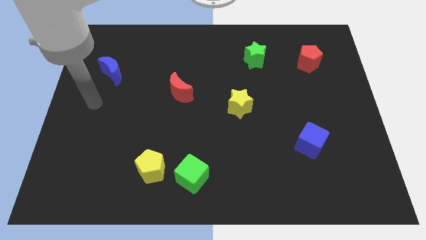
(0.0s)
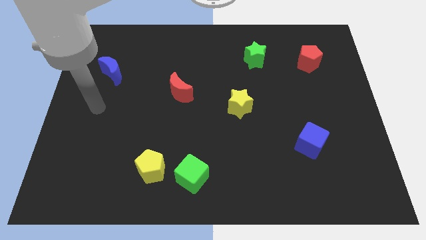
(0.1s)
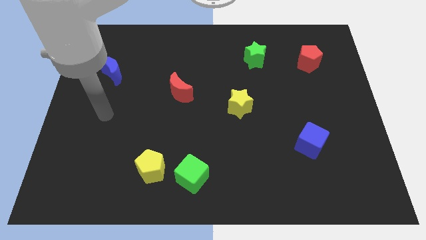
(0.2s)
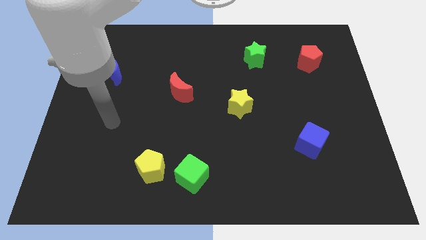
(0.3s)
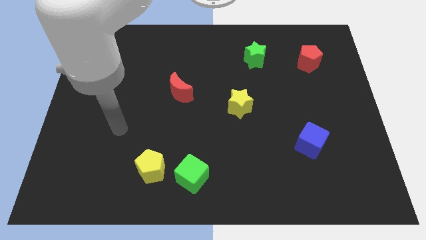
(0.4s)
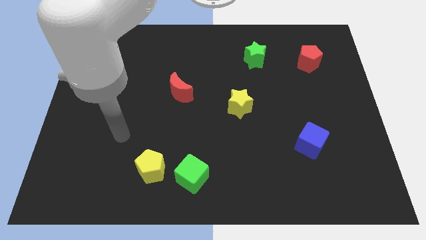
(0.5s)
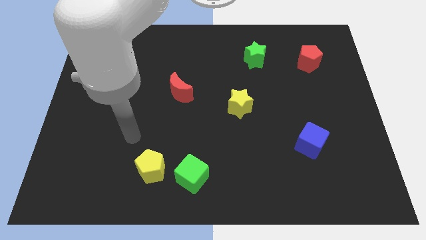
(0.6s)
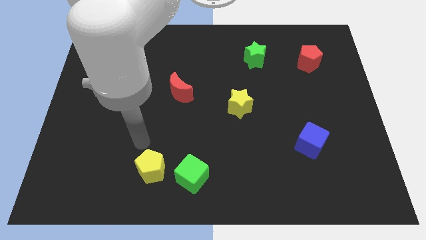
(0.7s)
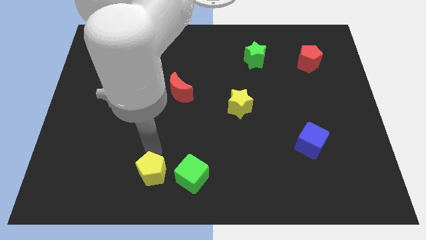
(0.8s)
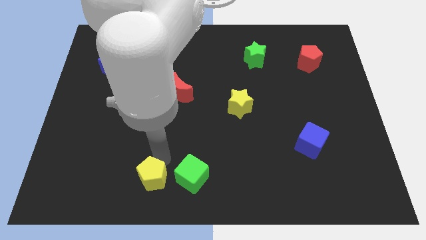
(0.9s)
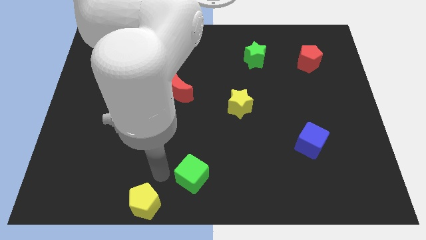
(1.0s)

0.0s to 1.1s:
separate the green cube from the yellow pentagon

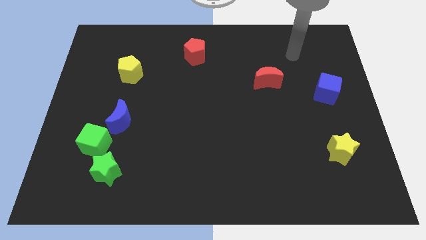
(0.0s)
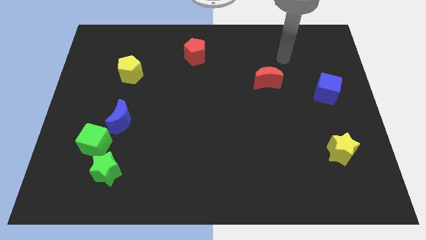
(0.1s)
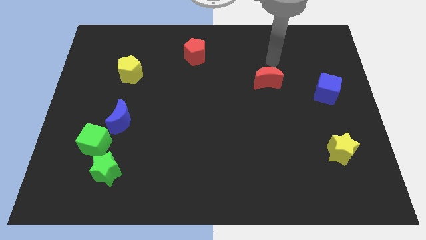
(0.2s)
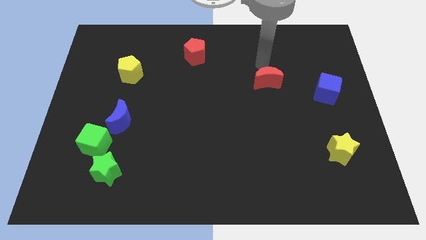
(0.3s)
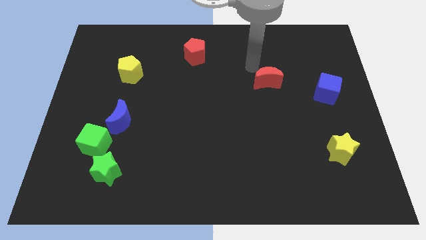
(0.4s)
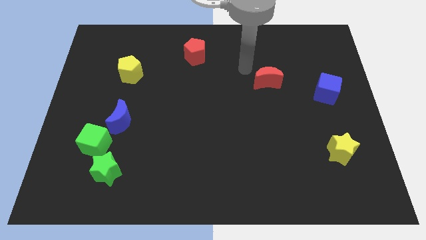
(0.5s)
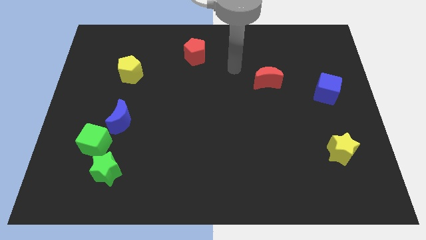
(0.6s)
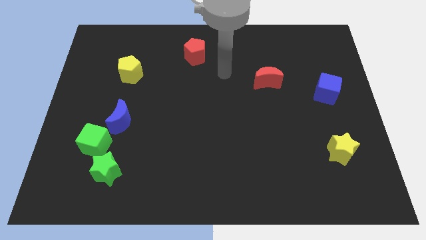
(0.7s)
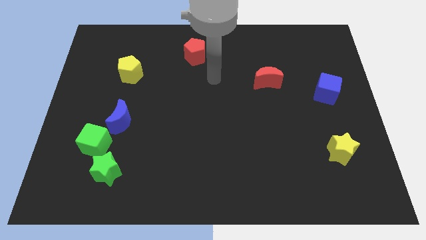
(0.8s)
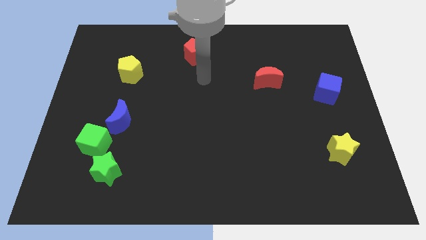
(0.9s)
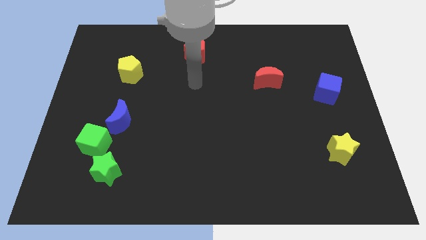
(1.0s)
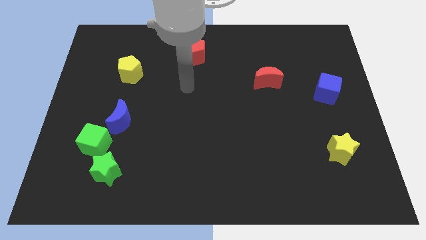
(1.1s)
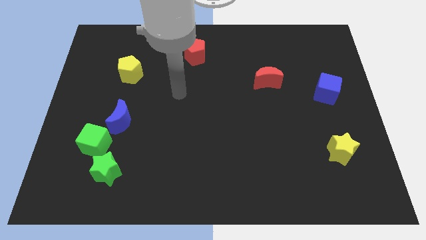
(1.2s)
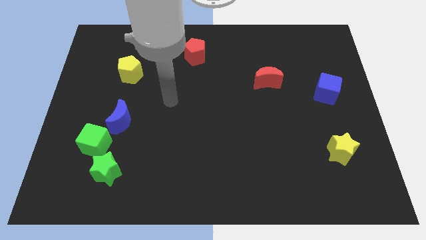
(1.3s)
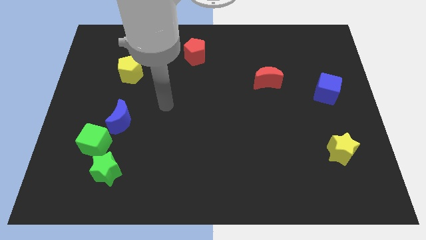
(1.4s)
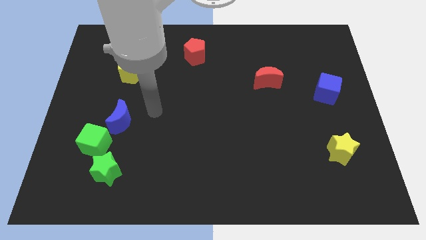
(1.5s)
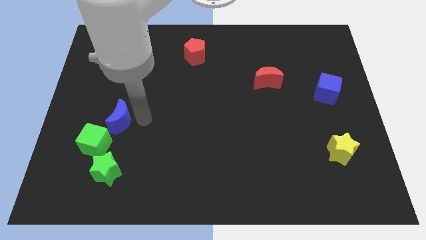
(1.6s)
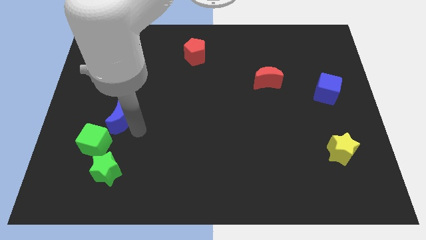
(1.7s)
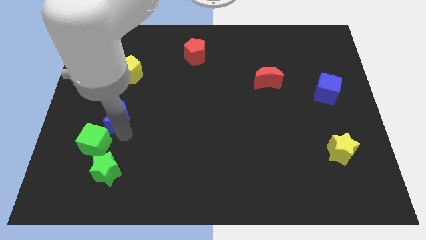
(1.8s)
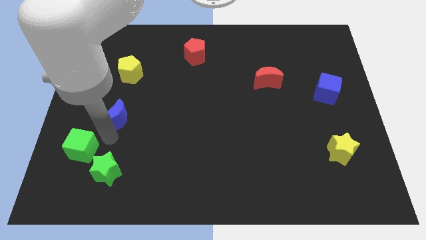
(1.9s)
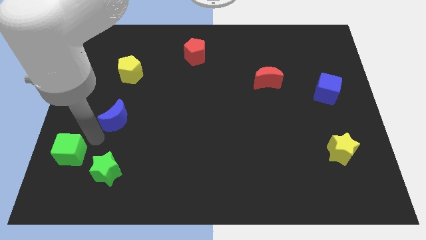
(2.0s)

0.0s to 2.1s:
pull the blue moon apart from the green cube

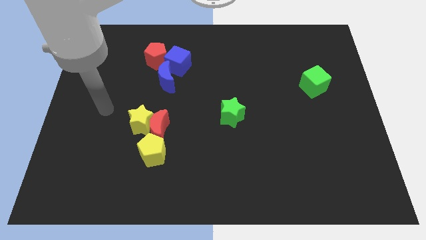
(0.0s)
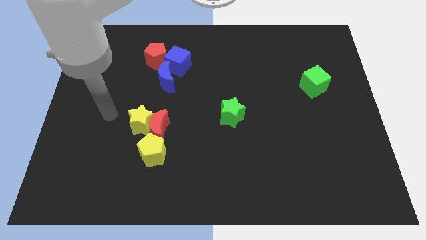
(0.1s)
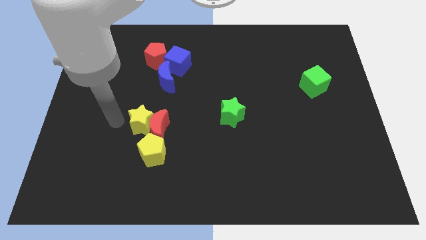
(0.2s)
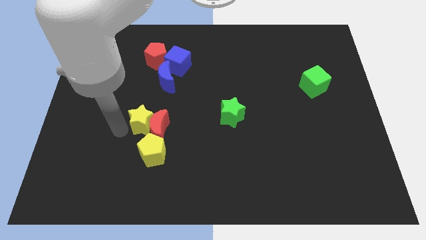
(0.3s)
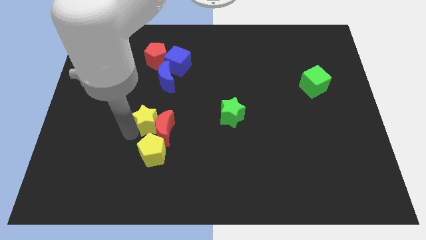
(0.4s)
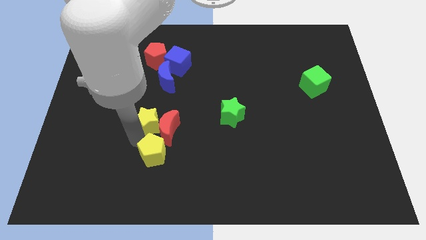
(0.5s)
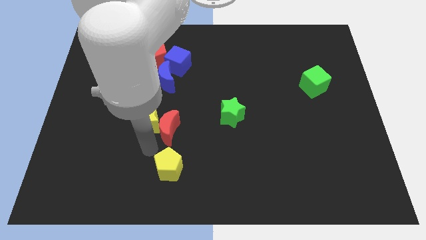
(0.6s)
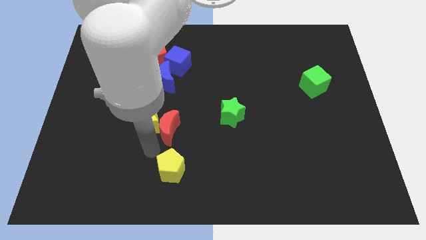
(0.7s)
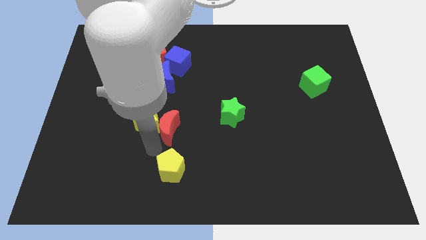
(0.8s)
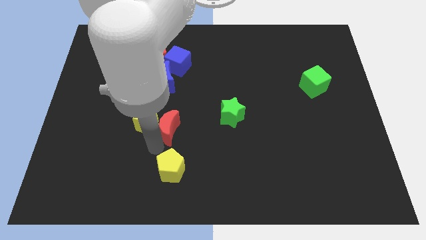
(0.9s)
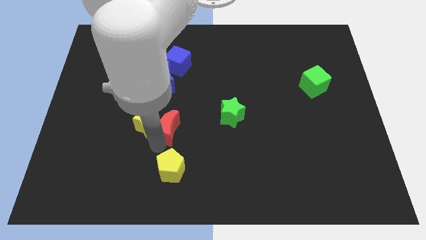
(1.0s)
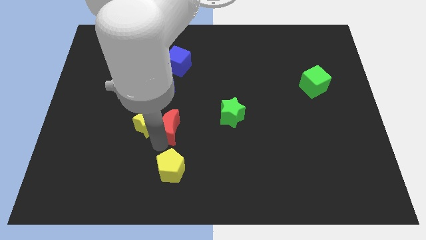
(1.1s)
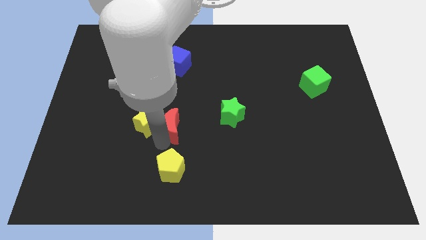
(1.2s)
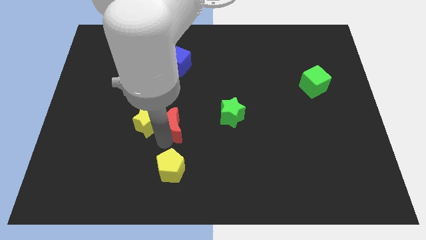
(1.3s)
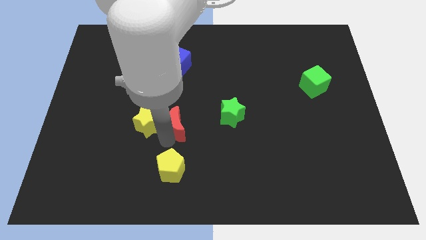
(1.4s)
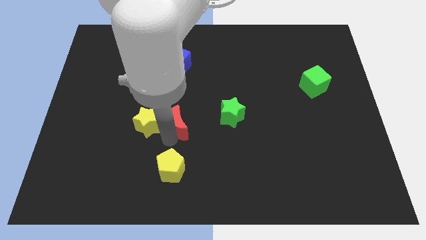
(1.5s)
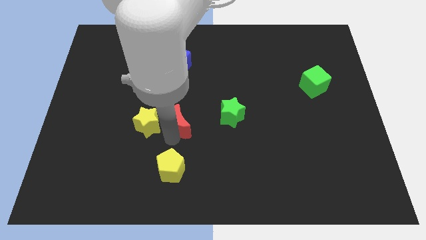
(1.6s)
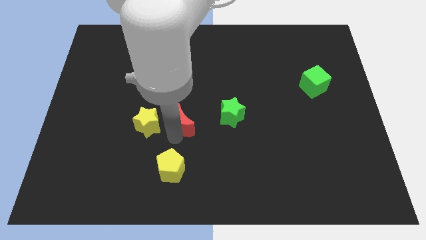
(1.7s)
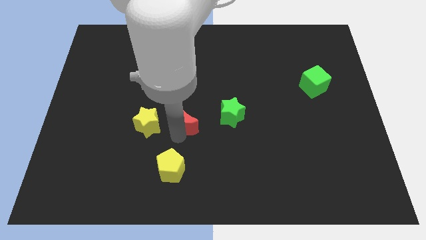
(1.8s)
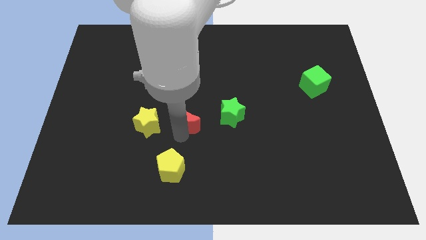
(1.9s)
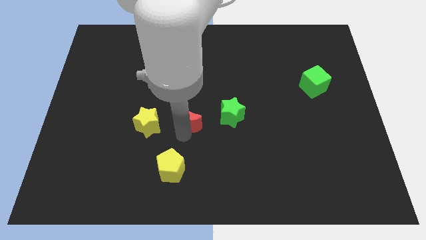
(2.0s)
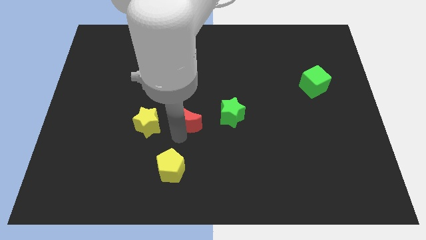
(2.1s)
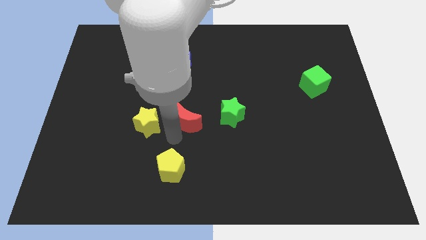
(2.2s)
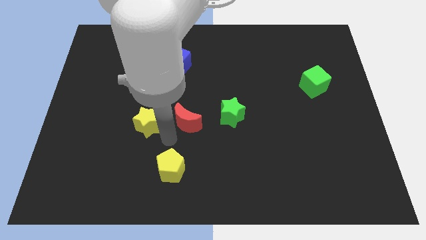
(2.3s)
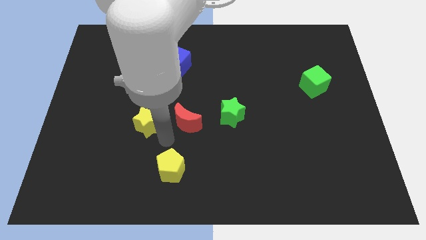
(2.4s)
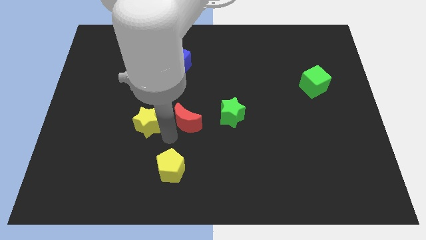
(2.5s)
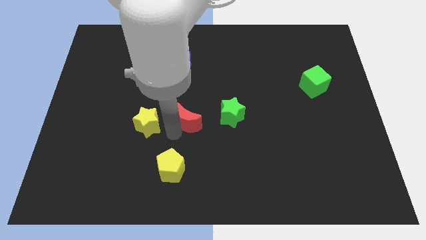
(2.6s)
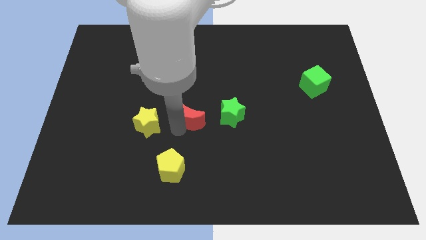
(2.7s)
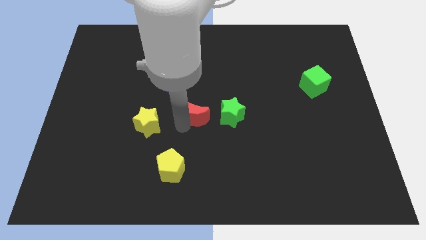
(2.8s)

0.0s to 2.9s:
move the red moon away from the yellow star and yellow pentagon

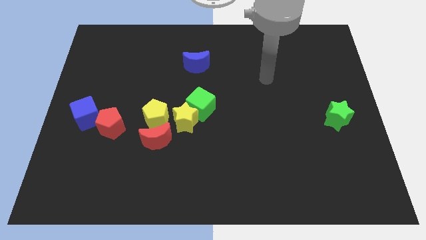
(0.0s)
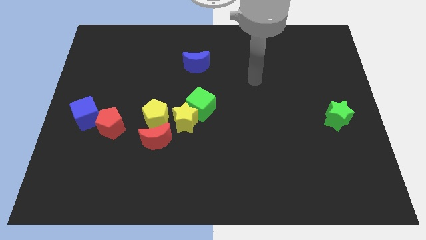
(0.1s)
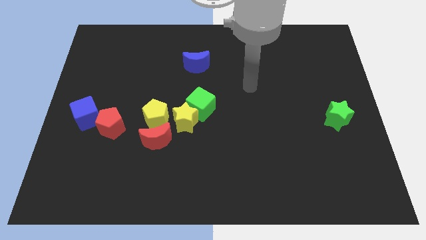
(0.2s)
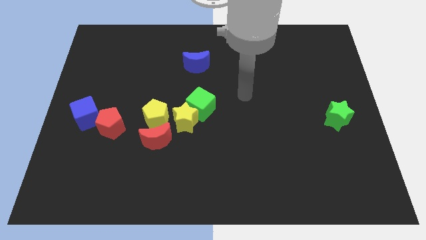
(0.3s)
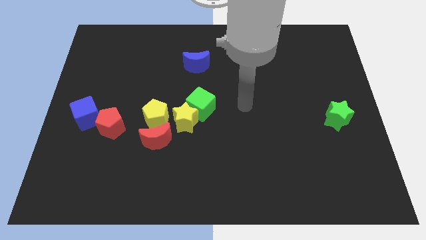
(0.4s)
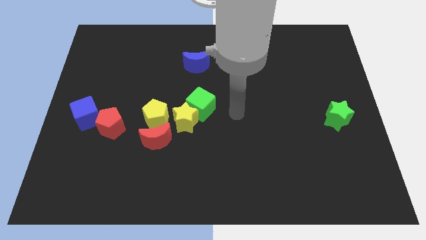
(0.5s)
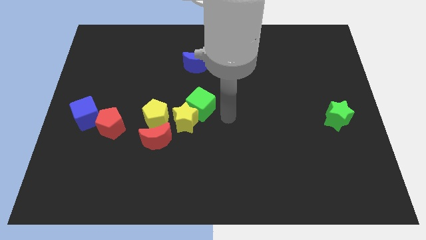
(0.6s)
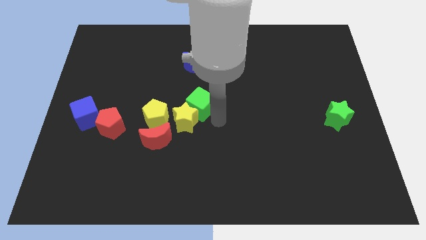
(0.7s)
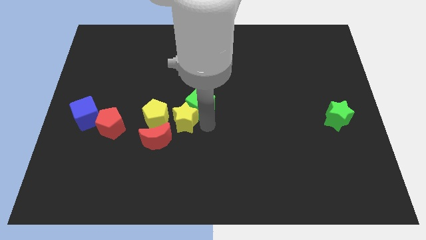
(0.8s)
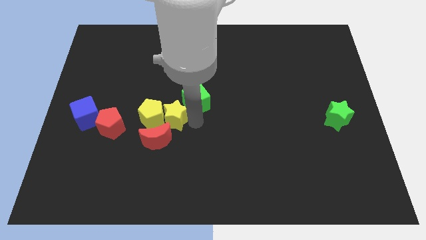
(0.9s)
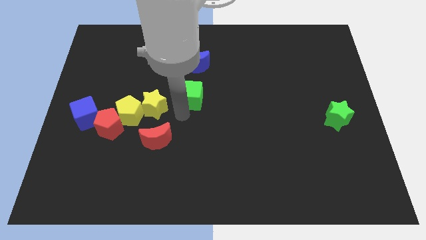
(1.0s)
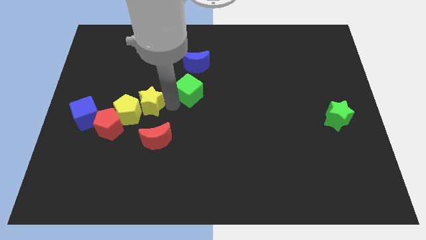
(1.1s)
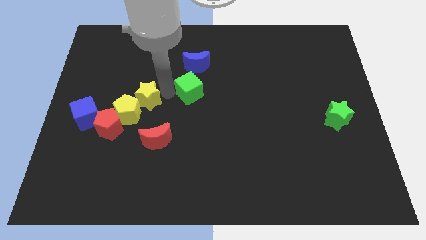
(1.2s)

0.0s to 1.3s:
move the green cube away from the yellow star

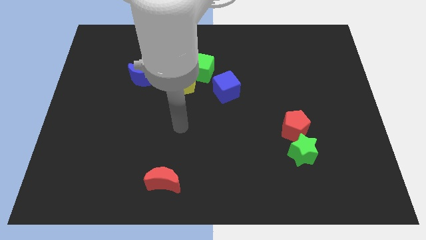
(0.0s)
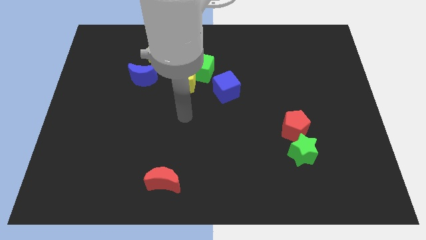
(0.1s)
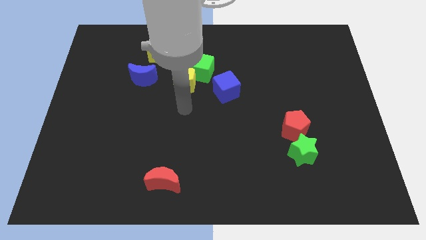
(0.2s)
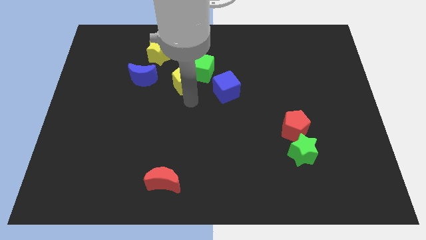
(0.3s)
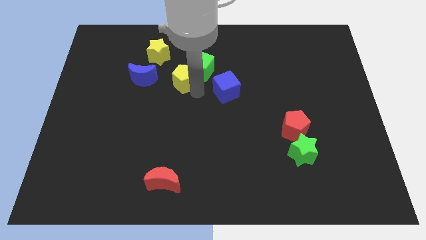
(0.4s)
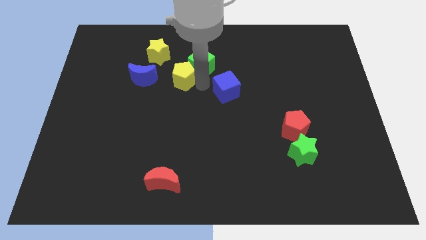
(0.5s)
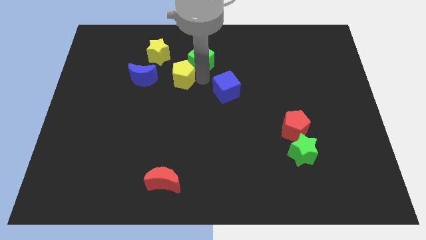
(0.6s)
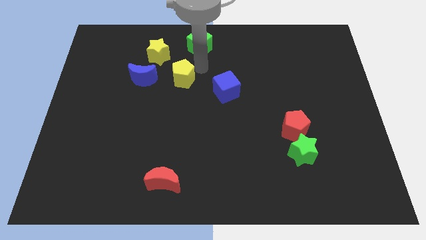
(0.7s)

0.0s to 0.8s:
separate the yellow pentagon from the green cube

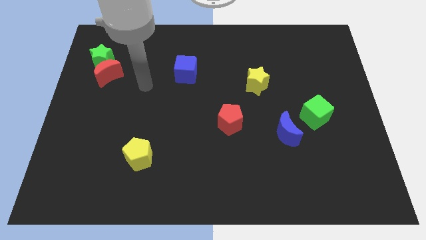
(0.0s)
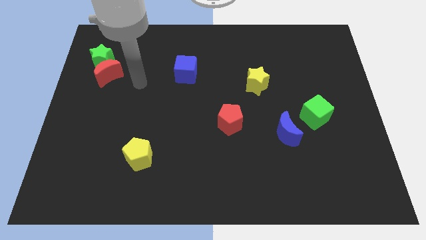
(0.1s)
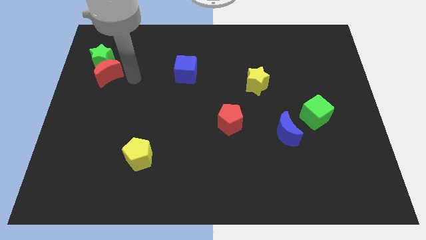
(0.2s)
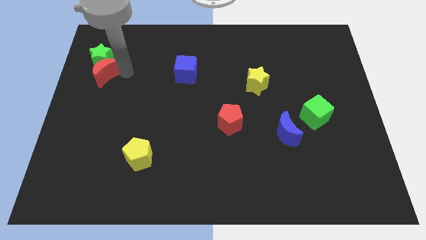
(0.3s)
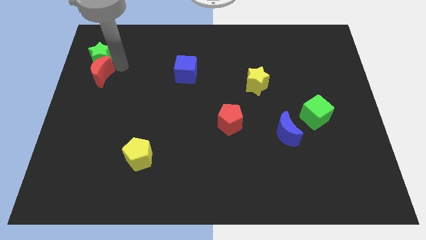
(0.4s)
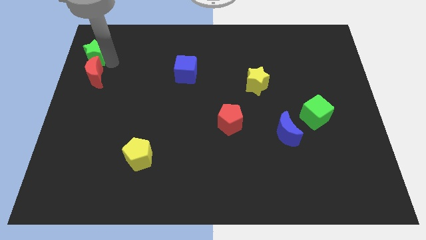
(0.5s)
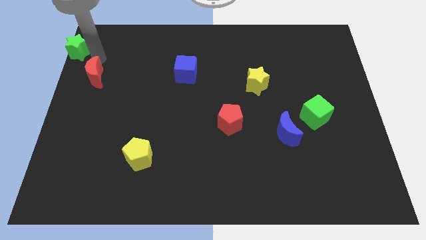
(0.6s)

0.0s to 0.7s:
separate the red moon from the green star

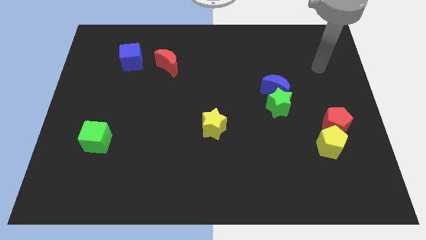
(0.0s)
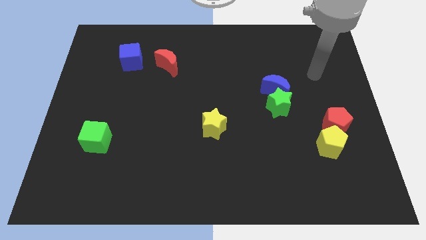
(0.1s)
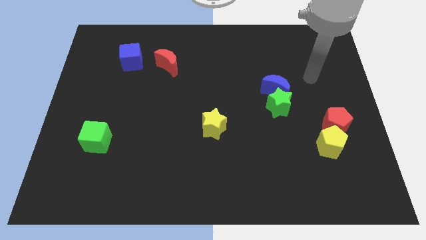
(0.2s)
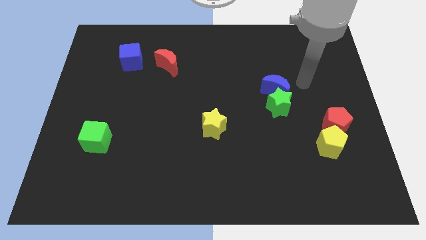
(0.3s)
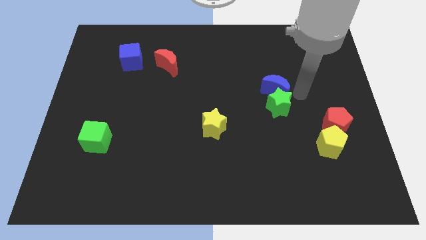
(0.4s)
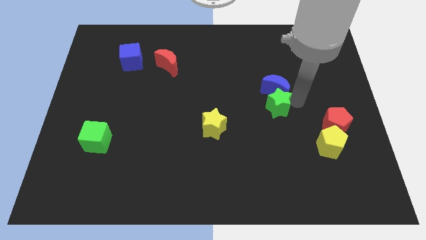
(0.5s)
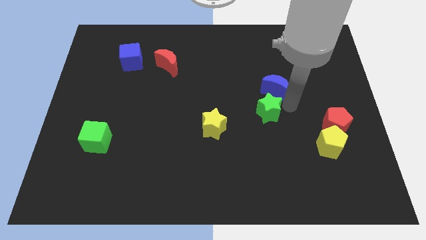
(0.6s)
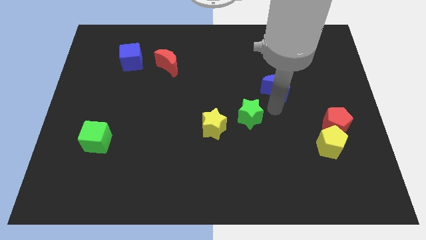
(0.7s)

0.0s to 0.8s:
separate the blue moon from the green star
